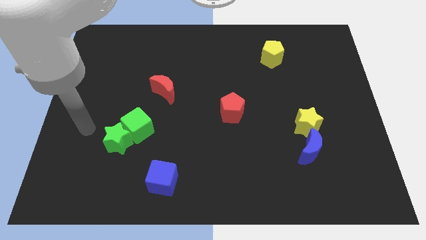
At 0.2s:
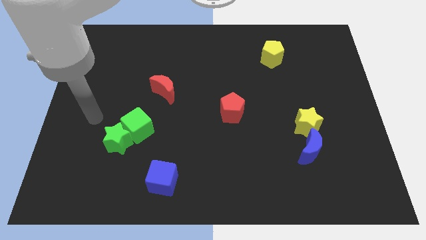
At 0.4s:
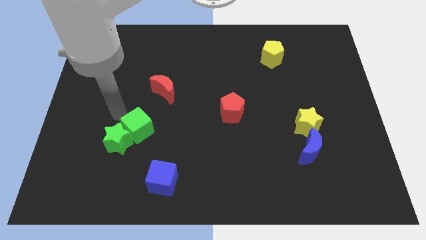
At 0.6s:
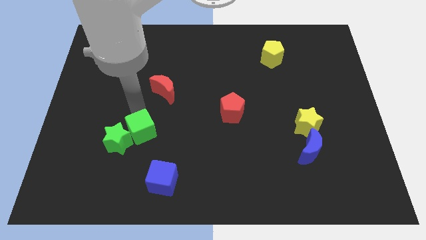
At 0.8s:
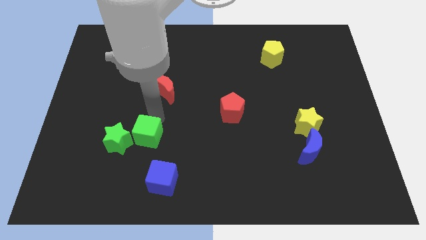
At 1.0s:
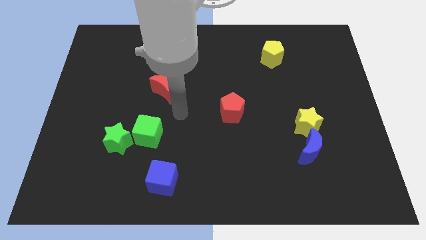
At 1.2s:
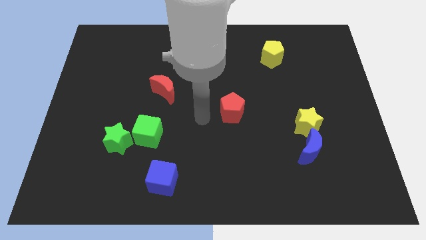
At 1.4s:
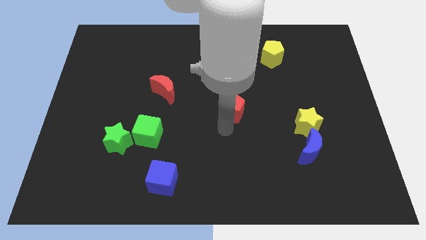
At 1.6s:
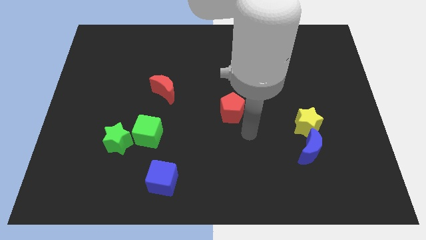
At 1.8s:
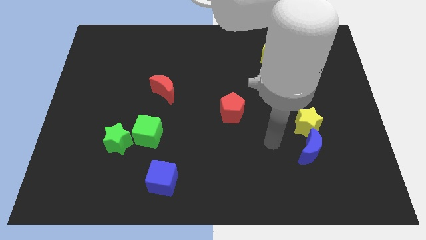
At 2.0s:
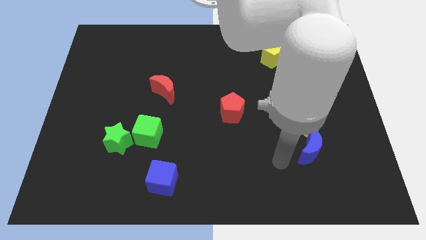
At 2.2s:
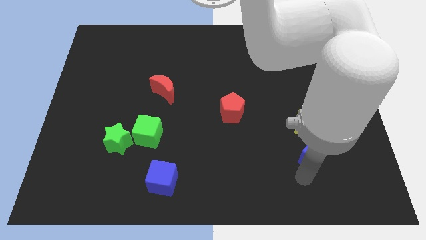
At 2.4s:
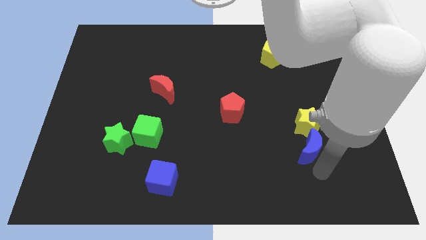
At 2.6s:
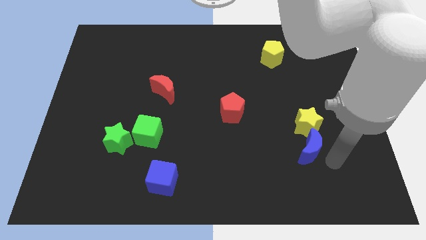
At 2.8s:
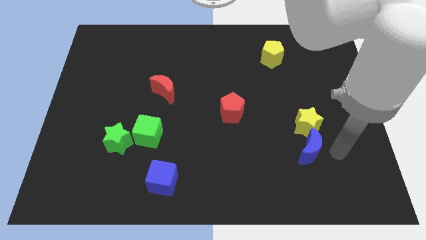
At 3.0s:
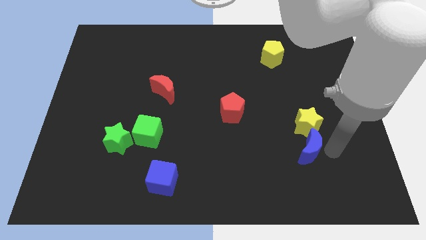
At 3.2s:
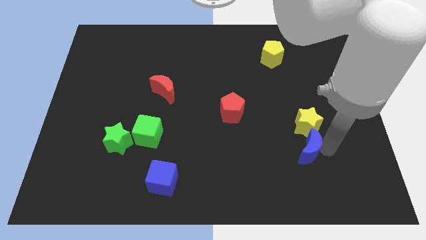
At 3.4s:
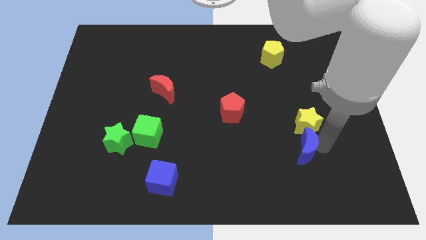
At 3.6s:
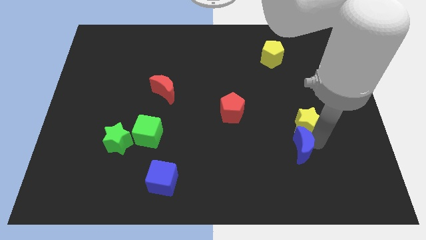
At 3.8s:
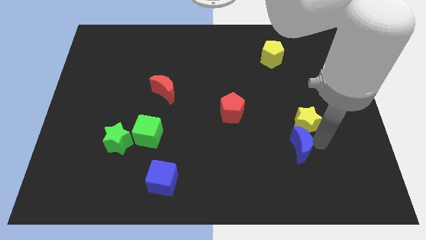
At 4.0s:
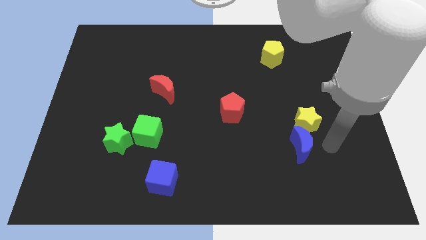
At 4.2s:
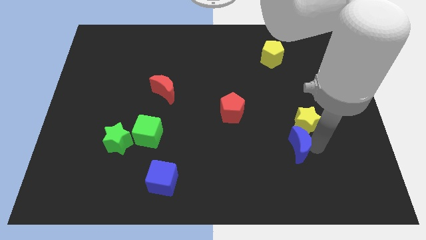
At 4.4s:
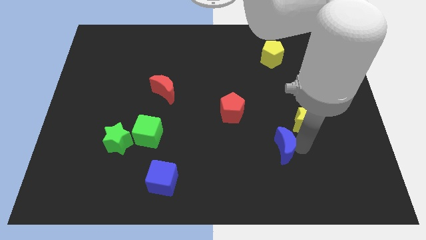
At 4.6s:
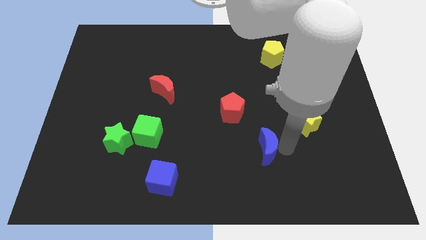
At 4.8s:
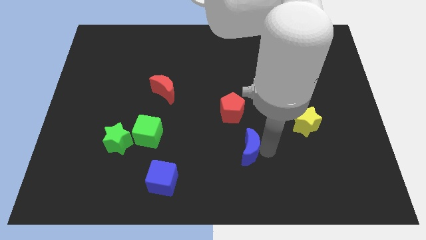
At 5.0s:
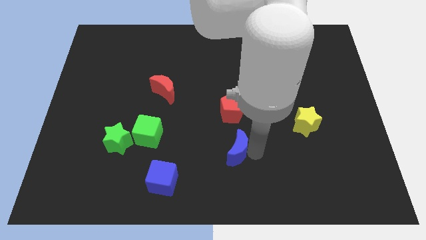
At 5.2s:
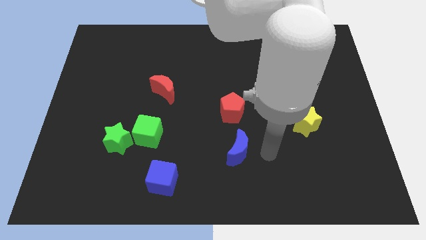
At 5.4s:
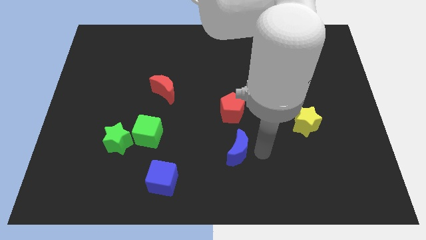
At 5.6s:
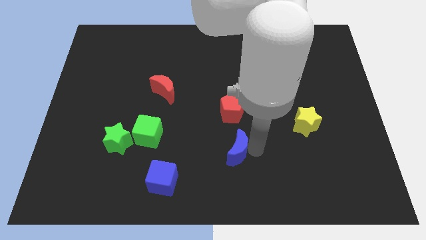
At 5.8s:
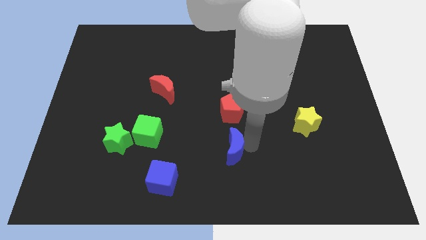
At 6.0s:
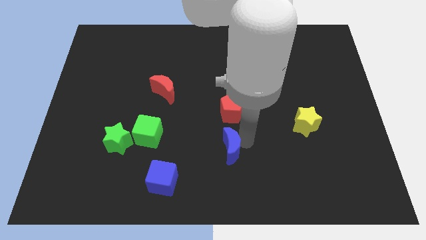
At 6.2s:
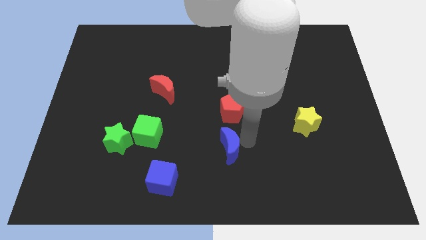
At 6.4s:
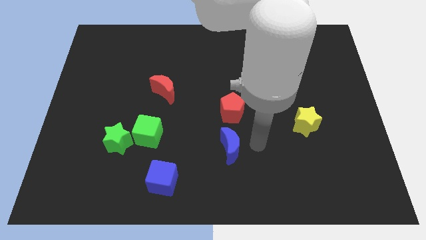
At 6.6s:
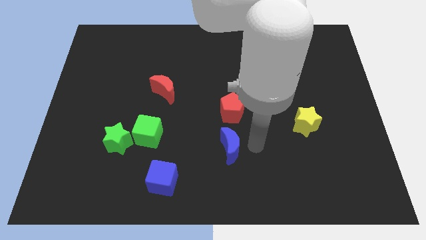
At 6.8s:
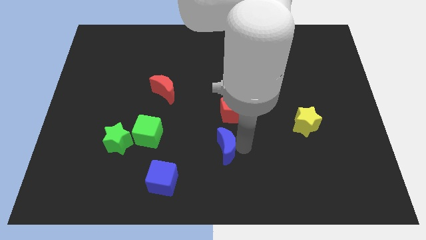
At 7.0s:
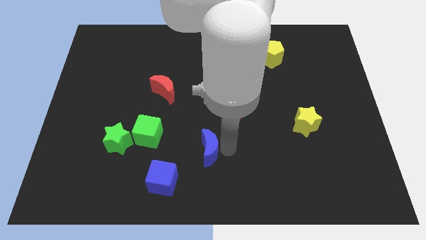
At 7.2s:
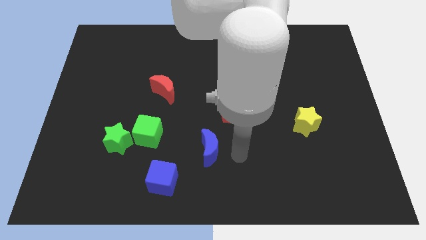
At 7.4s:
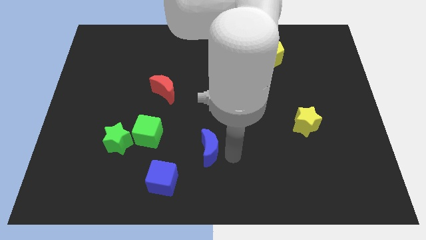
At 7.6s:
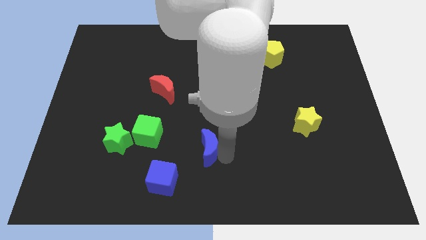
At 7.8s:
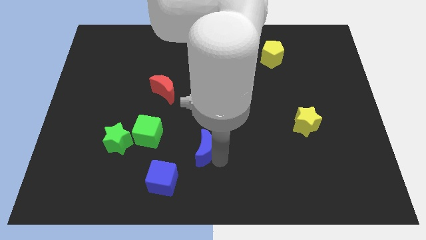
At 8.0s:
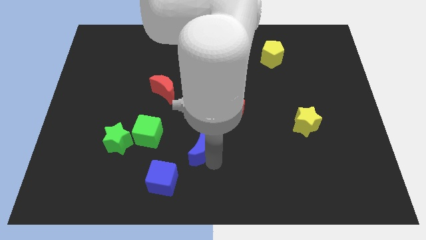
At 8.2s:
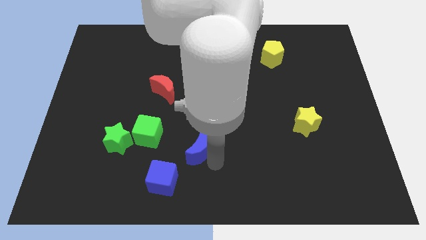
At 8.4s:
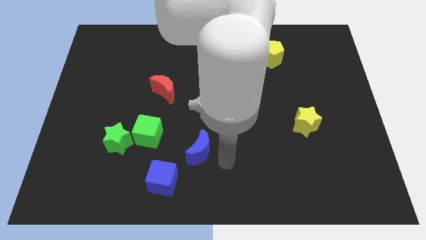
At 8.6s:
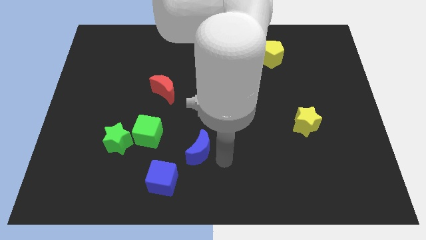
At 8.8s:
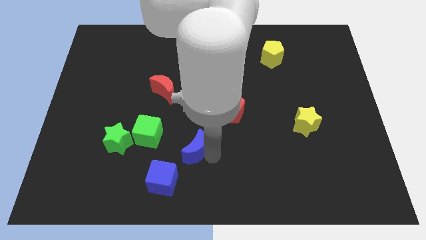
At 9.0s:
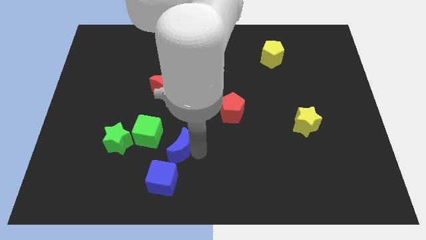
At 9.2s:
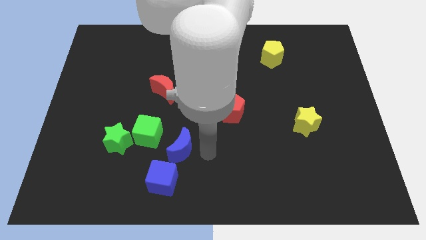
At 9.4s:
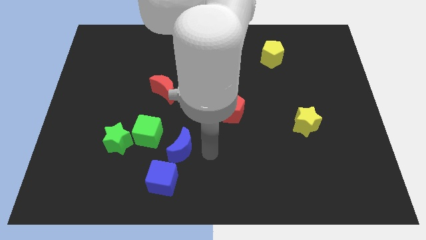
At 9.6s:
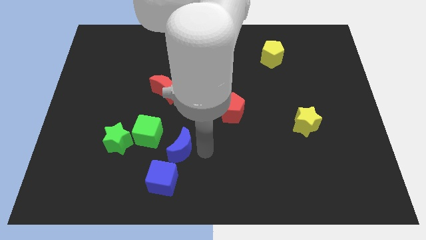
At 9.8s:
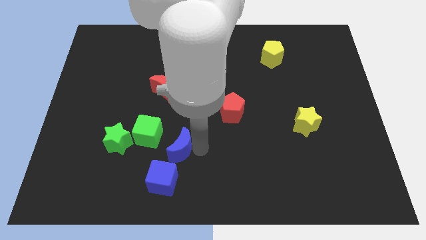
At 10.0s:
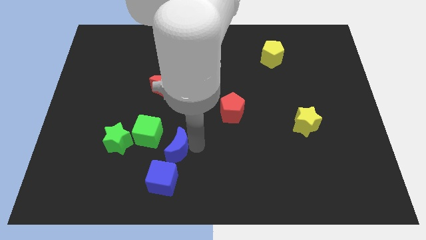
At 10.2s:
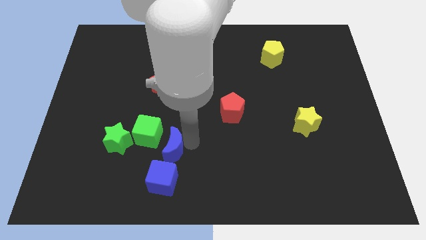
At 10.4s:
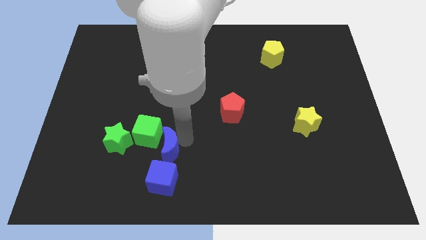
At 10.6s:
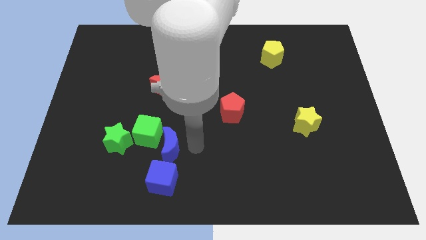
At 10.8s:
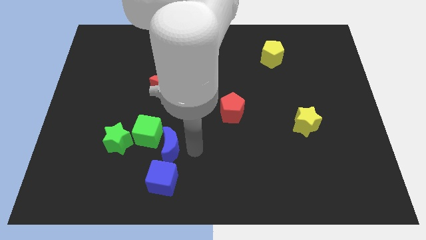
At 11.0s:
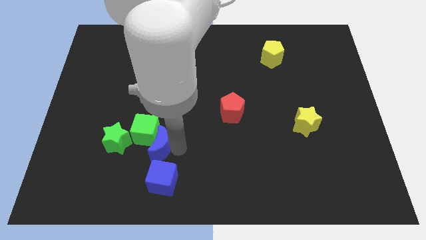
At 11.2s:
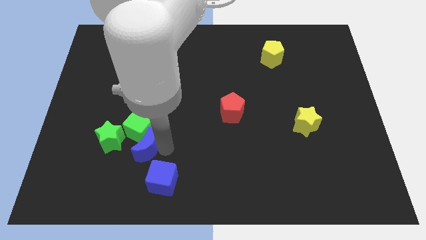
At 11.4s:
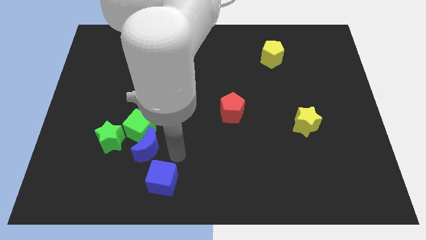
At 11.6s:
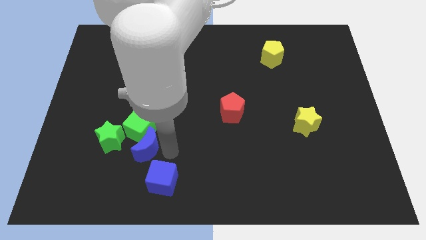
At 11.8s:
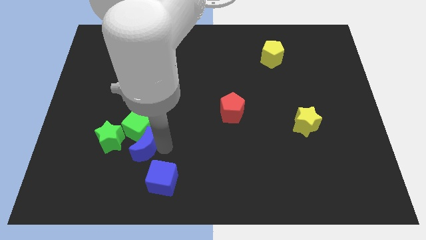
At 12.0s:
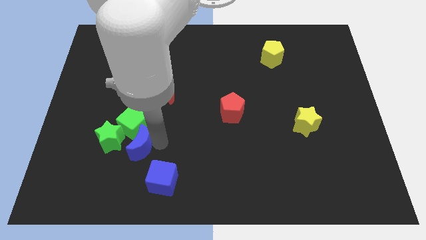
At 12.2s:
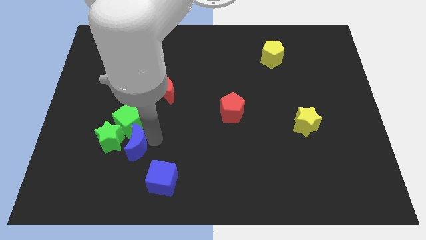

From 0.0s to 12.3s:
push the blue moon next to the green star
